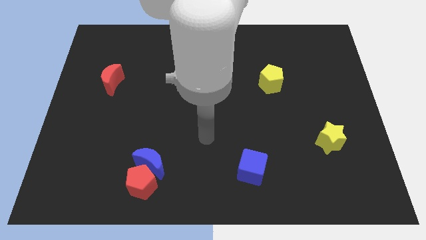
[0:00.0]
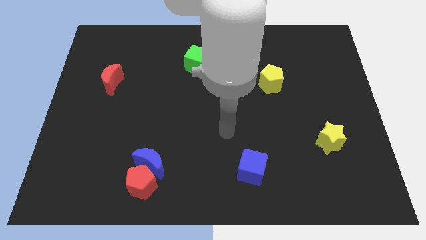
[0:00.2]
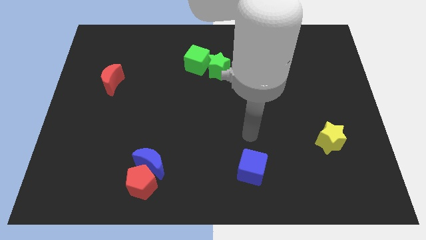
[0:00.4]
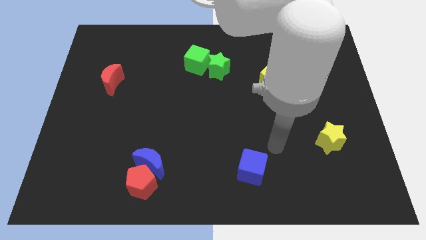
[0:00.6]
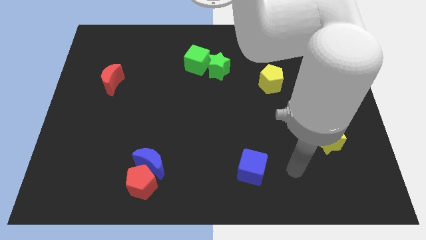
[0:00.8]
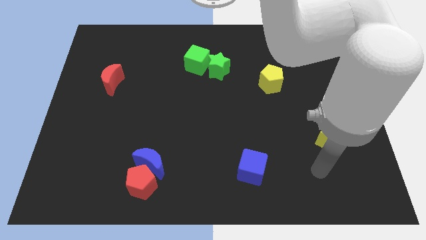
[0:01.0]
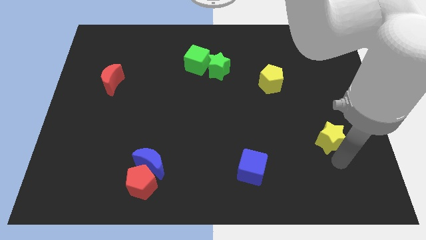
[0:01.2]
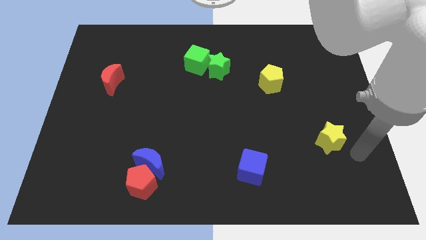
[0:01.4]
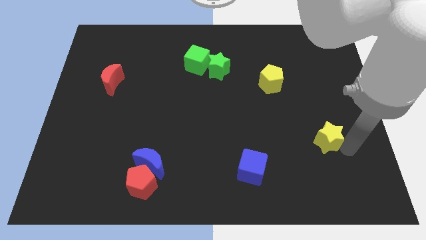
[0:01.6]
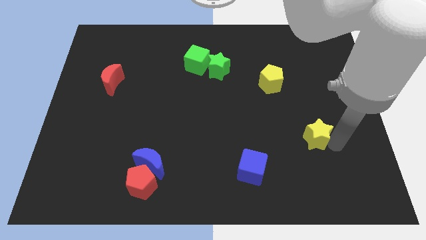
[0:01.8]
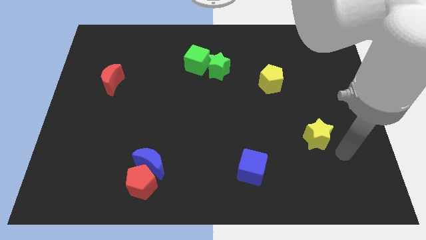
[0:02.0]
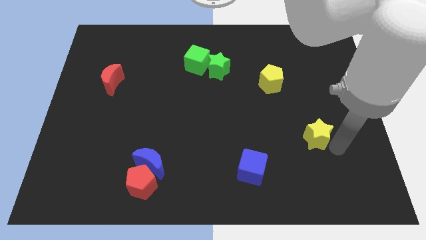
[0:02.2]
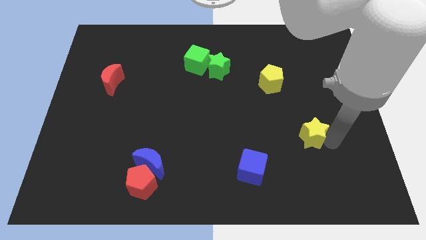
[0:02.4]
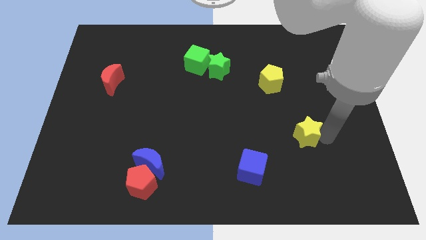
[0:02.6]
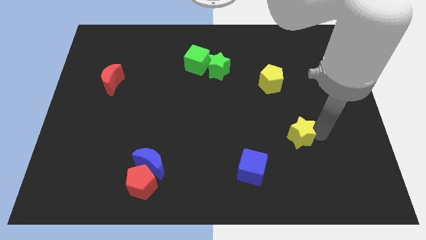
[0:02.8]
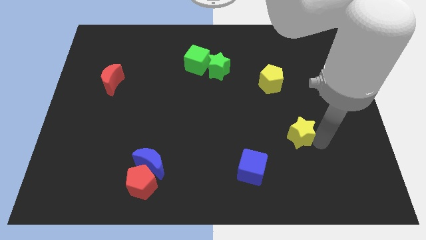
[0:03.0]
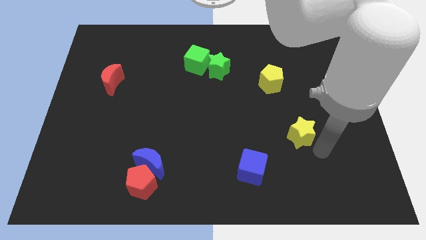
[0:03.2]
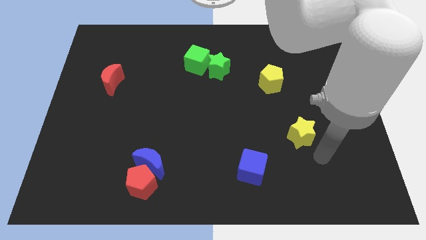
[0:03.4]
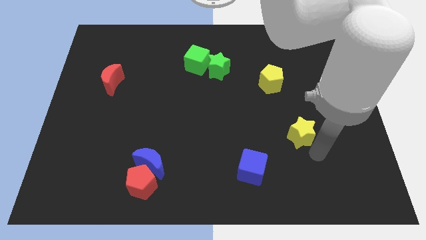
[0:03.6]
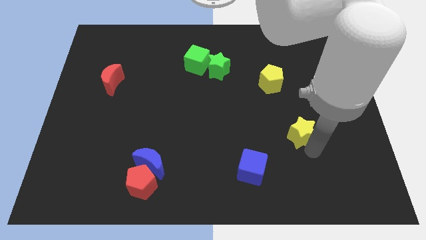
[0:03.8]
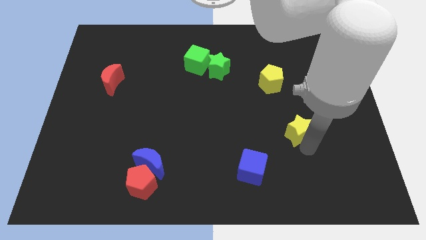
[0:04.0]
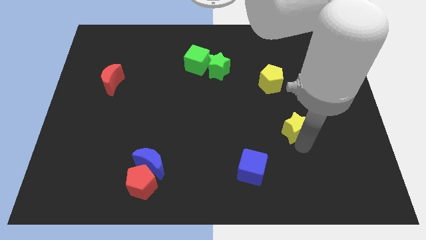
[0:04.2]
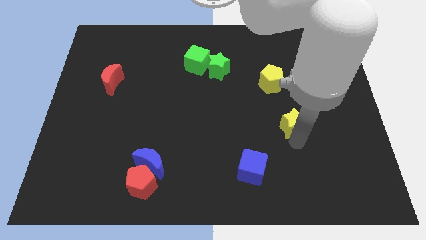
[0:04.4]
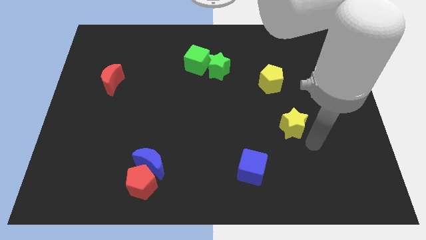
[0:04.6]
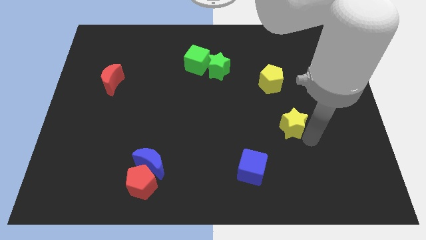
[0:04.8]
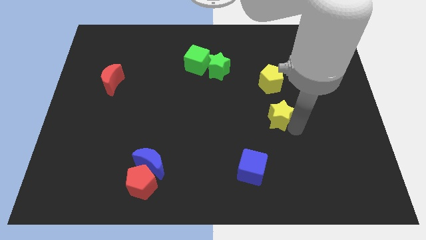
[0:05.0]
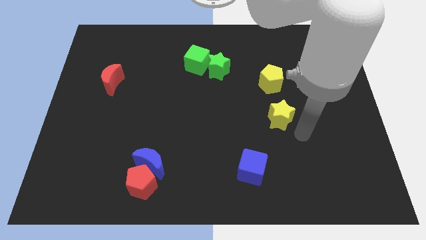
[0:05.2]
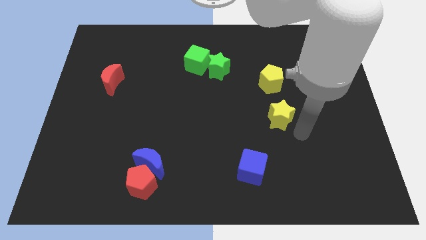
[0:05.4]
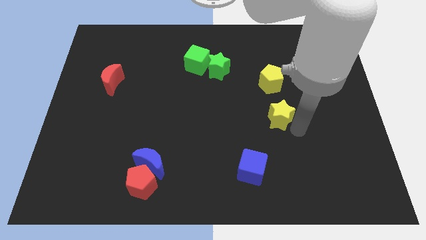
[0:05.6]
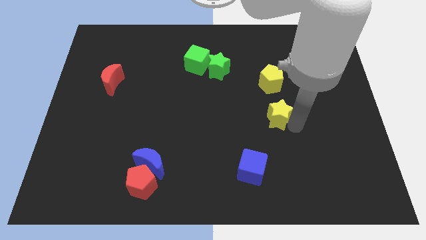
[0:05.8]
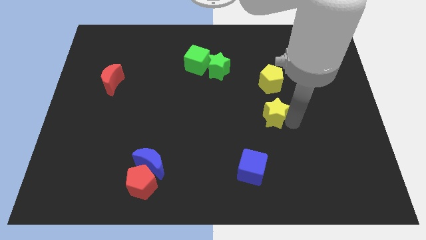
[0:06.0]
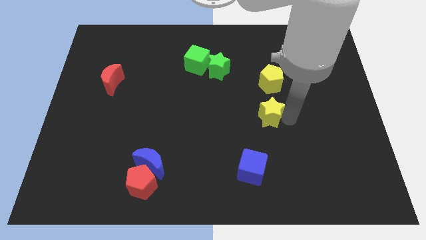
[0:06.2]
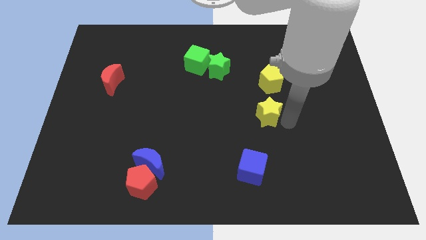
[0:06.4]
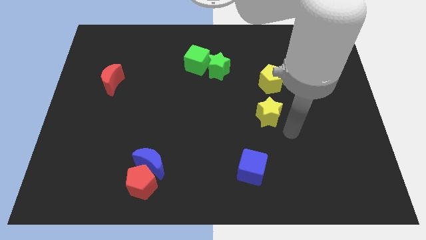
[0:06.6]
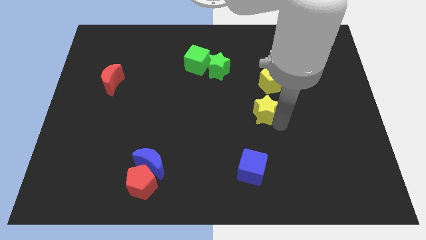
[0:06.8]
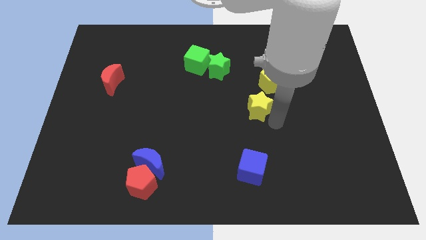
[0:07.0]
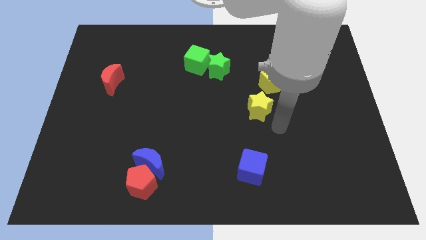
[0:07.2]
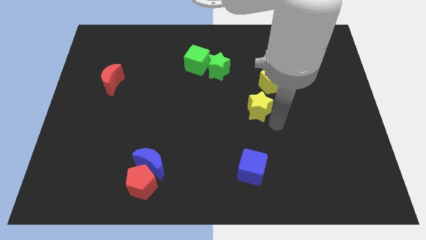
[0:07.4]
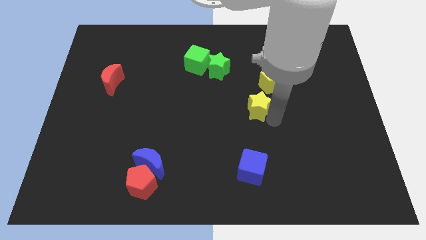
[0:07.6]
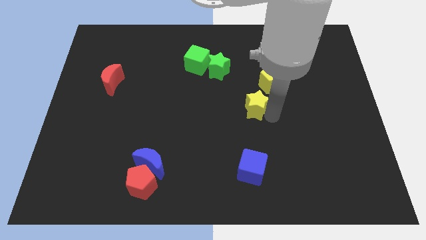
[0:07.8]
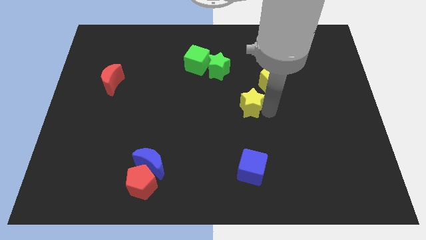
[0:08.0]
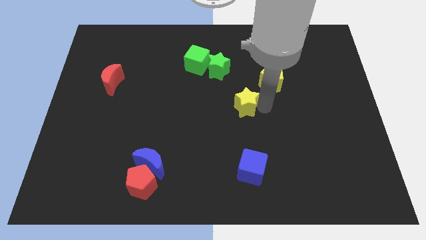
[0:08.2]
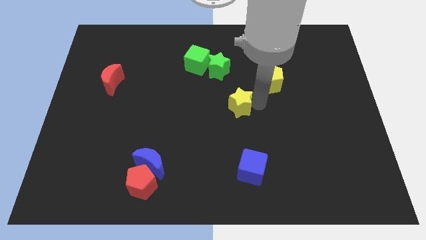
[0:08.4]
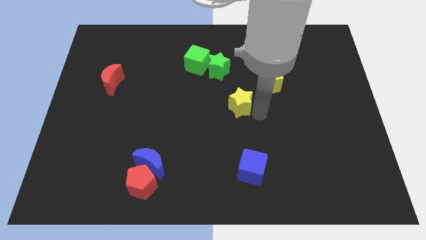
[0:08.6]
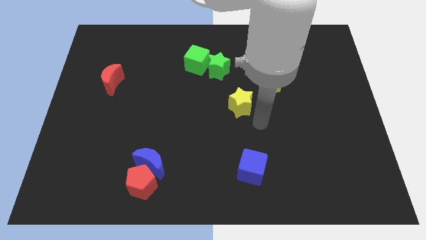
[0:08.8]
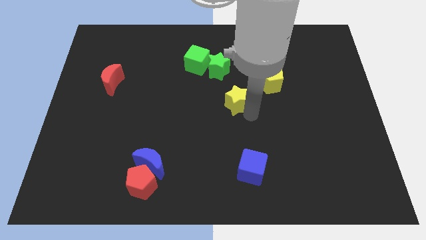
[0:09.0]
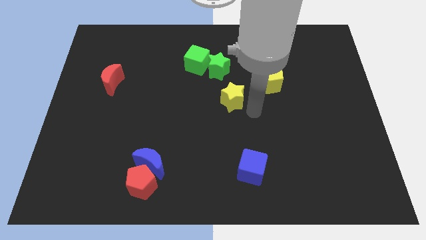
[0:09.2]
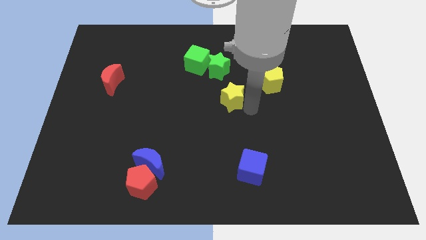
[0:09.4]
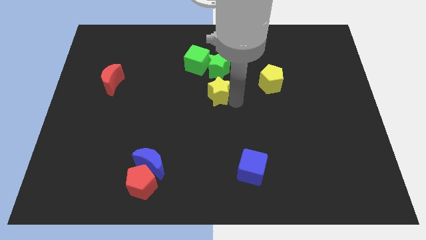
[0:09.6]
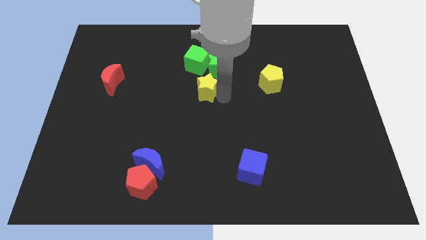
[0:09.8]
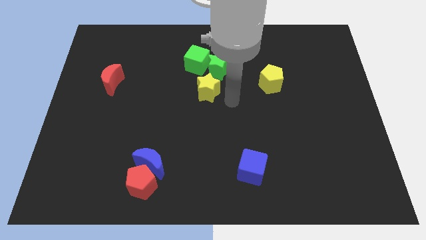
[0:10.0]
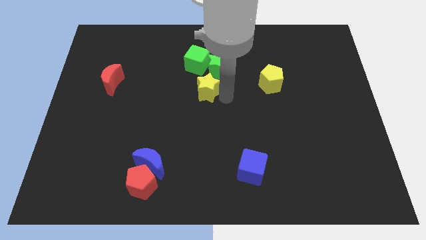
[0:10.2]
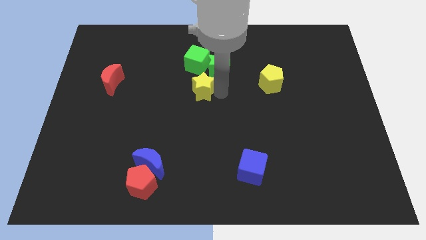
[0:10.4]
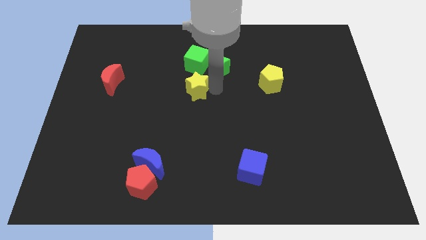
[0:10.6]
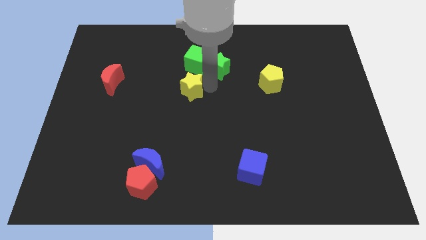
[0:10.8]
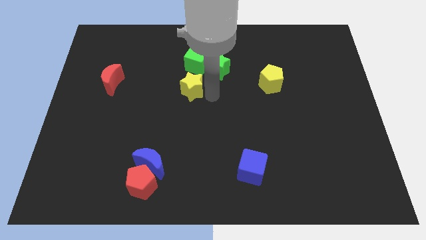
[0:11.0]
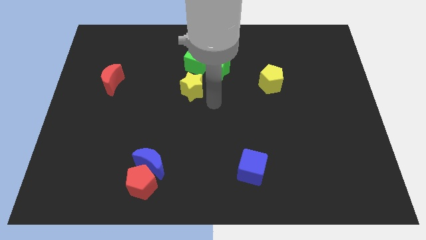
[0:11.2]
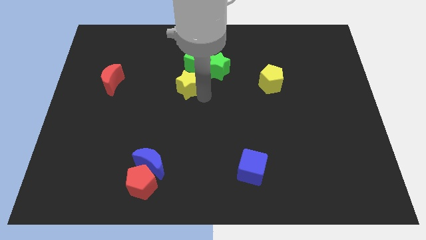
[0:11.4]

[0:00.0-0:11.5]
move the yellow star to the bottom left side of the green cube

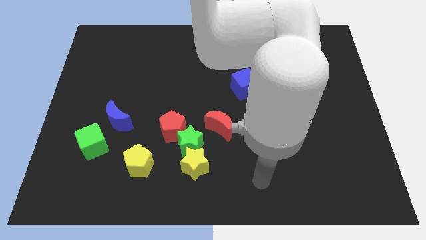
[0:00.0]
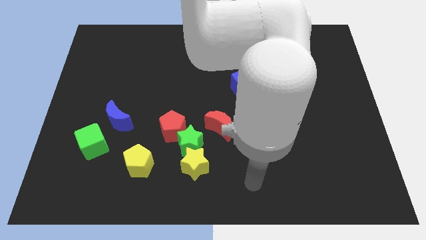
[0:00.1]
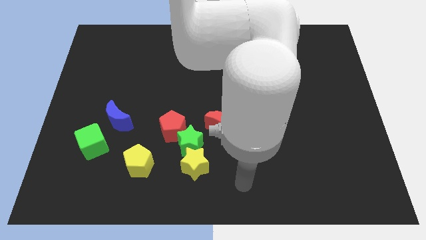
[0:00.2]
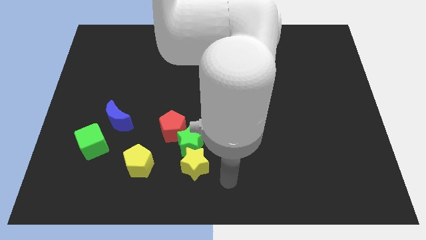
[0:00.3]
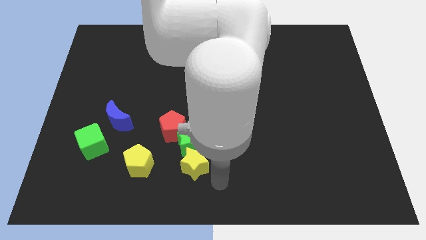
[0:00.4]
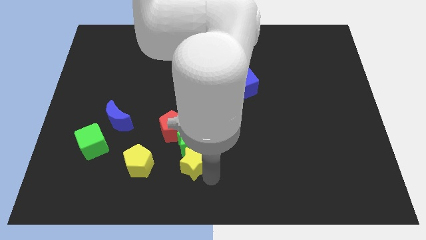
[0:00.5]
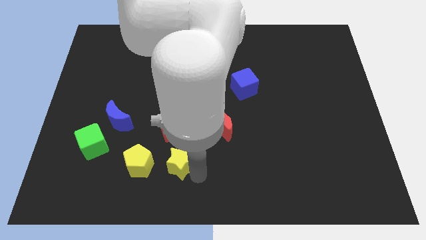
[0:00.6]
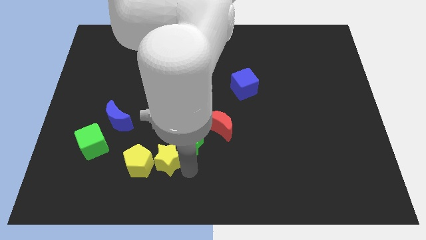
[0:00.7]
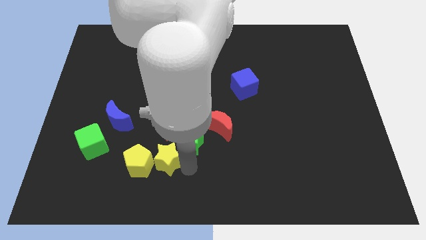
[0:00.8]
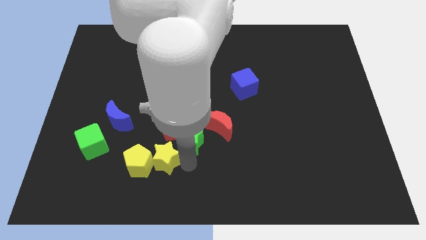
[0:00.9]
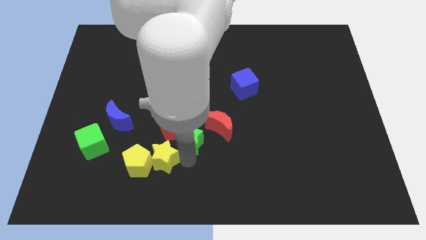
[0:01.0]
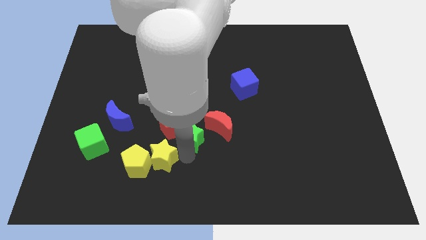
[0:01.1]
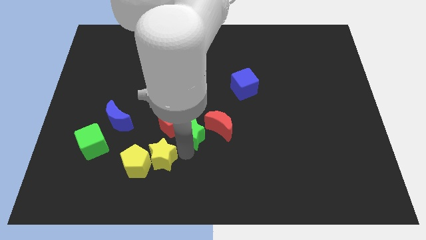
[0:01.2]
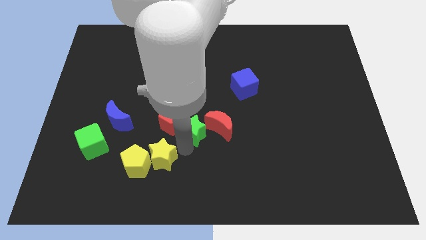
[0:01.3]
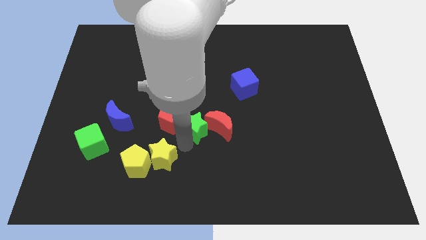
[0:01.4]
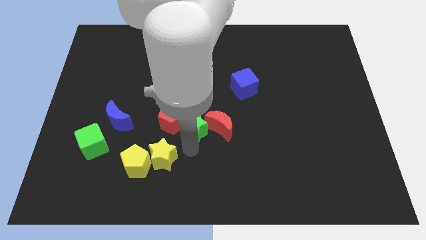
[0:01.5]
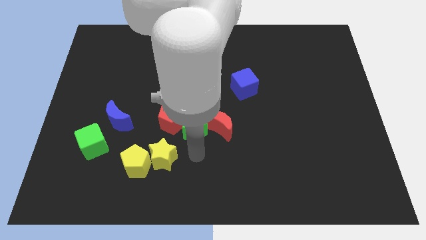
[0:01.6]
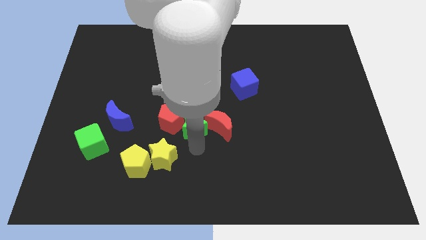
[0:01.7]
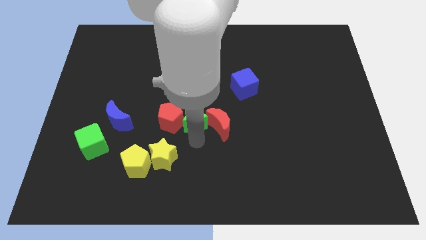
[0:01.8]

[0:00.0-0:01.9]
put the green star to the top right of the red pentagon
